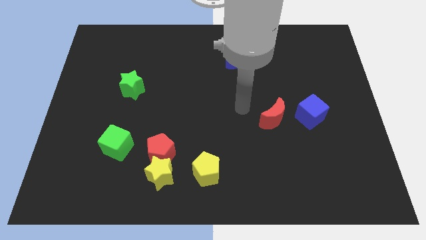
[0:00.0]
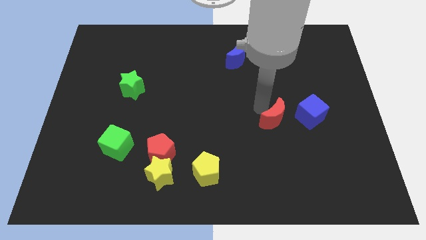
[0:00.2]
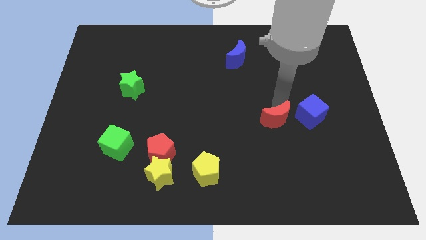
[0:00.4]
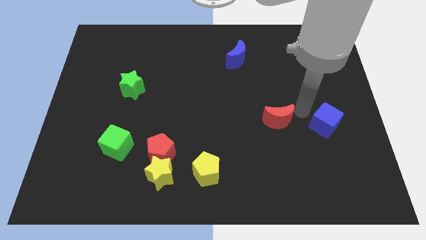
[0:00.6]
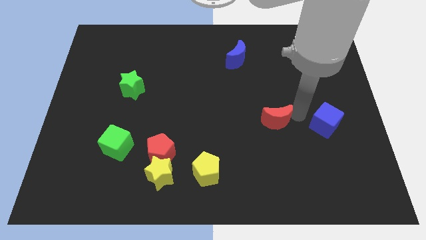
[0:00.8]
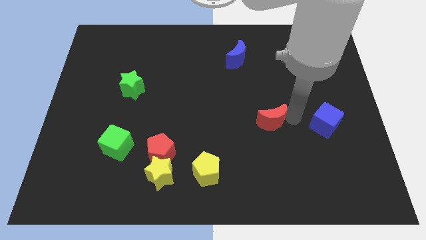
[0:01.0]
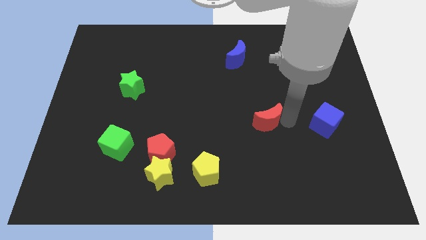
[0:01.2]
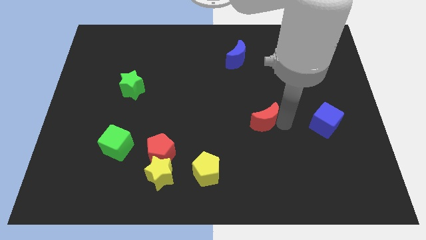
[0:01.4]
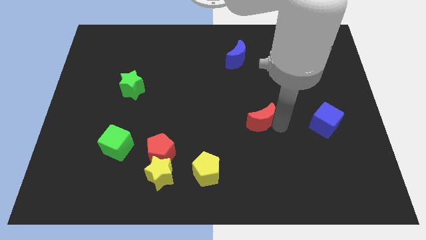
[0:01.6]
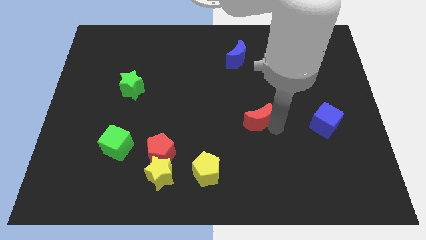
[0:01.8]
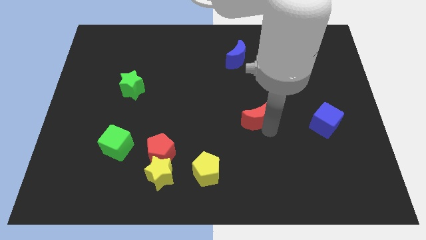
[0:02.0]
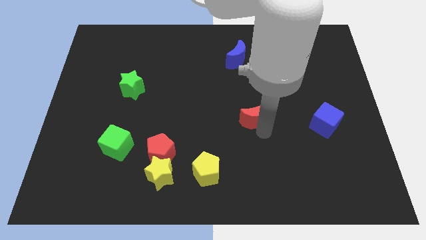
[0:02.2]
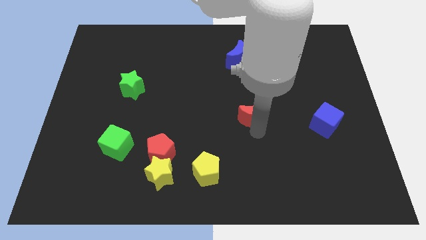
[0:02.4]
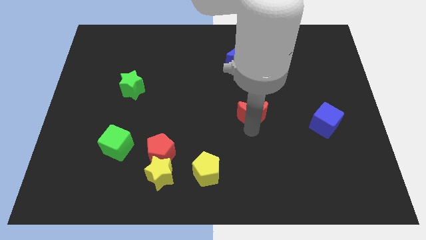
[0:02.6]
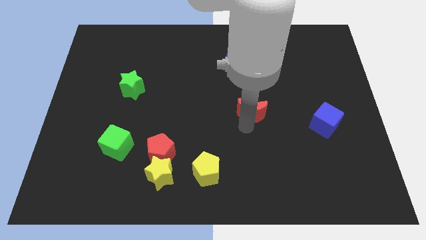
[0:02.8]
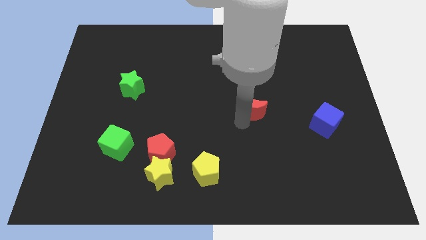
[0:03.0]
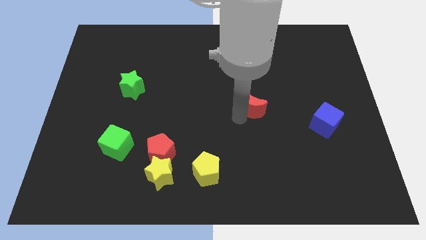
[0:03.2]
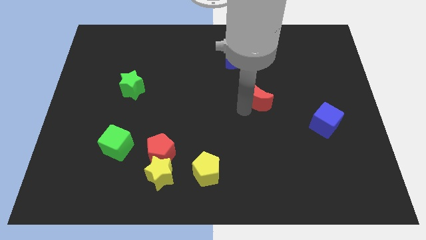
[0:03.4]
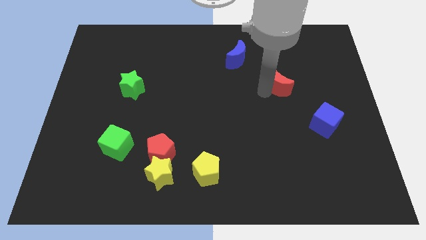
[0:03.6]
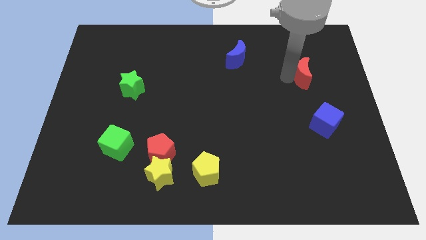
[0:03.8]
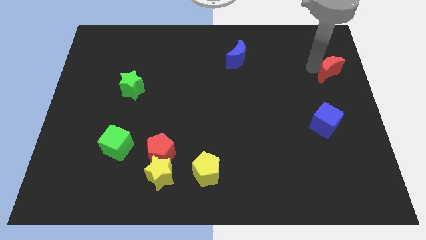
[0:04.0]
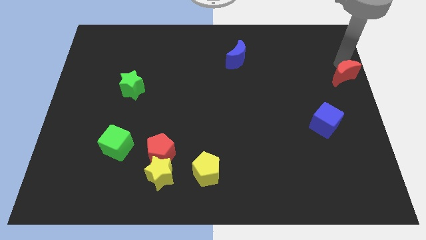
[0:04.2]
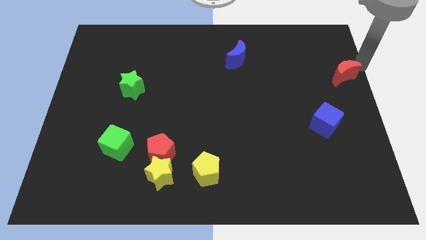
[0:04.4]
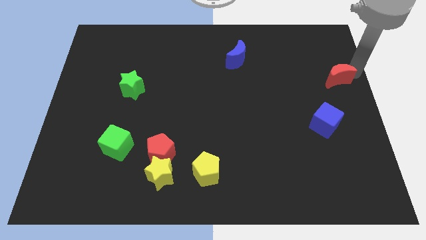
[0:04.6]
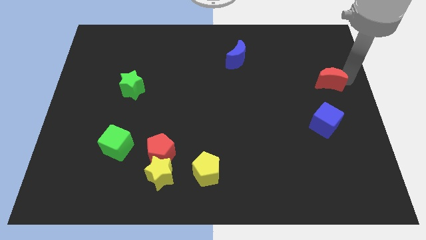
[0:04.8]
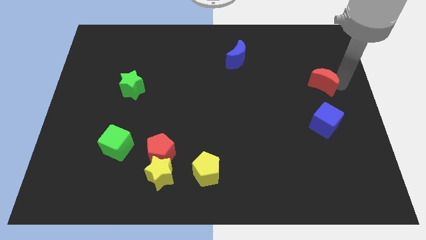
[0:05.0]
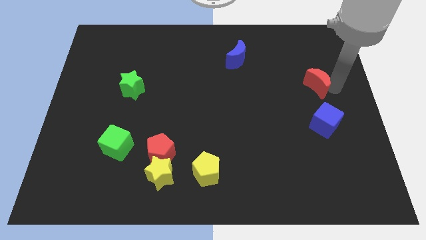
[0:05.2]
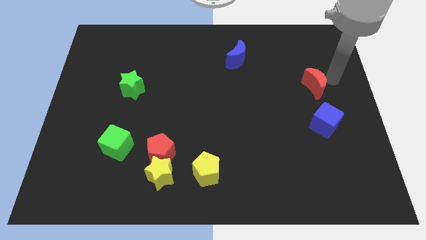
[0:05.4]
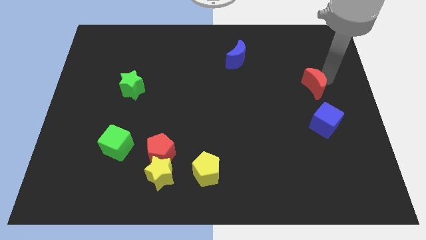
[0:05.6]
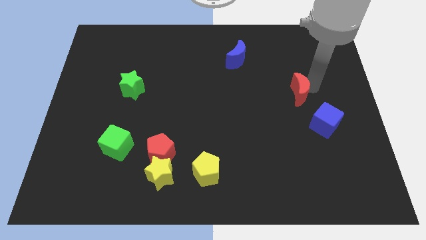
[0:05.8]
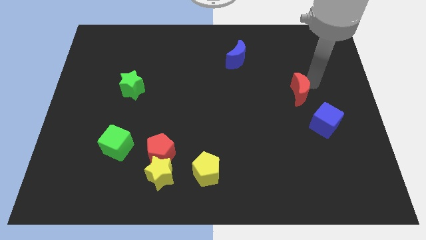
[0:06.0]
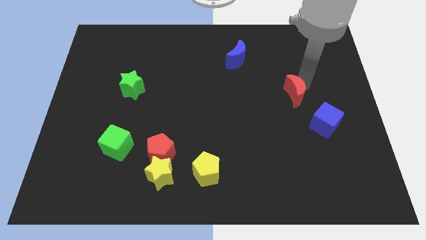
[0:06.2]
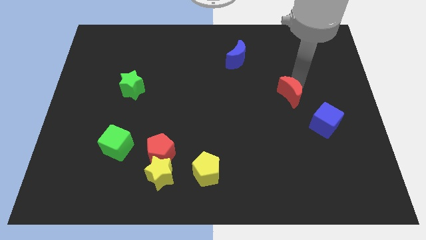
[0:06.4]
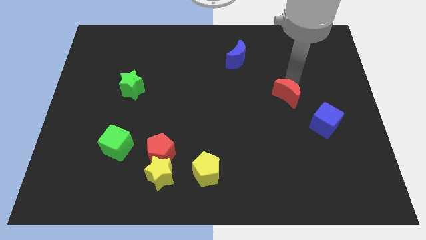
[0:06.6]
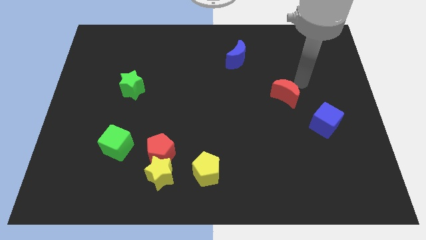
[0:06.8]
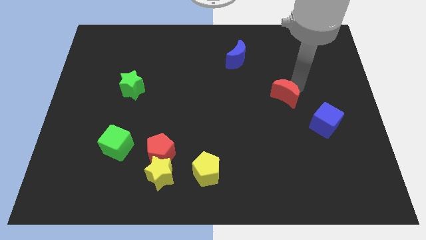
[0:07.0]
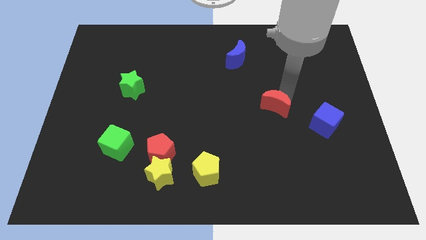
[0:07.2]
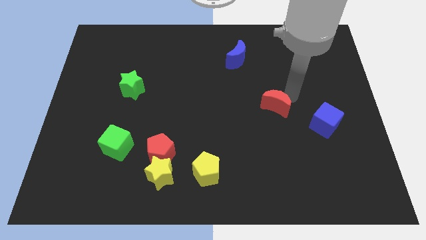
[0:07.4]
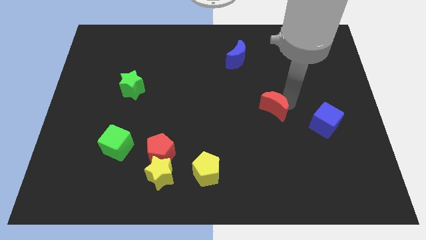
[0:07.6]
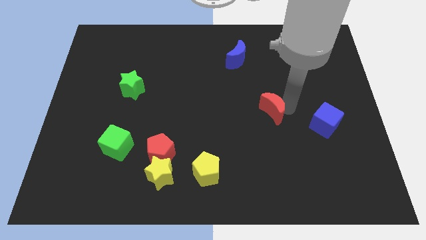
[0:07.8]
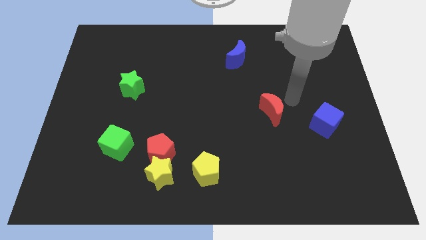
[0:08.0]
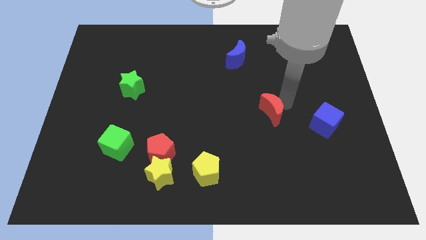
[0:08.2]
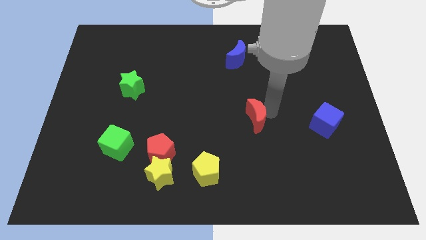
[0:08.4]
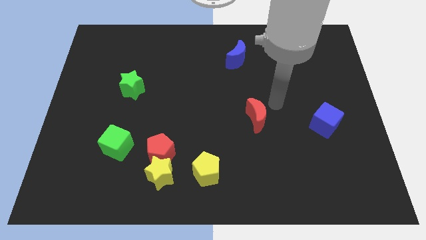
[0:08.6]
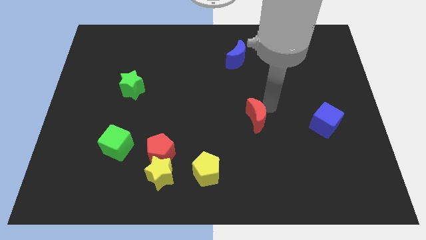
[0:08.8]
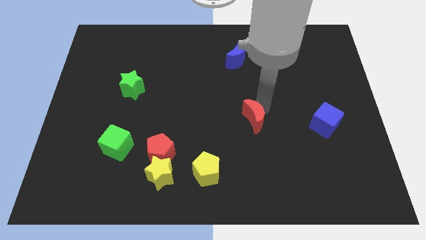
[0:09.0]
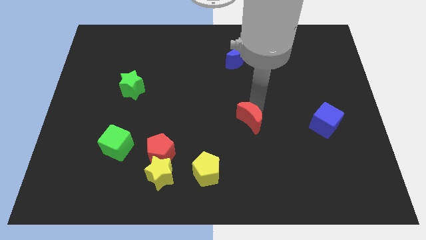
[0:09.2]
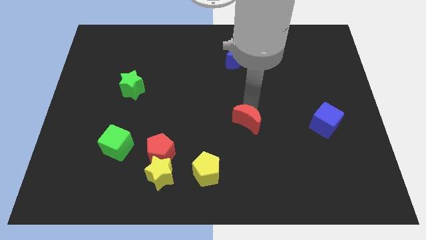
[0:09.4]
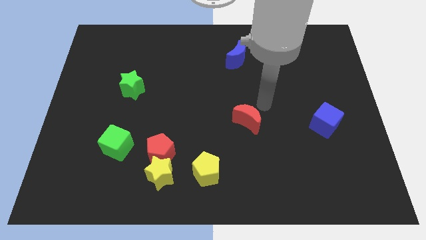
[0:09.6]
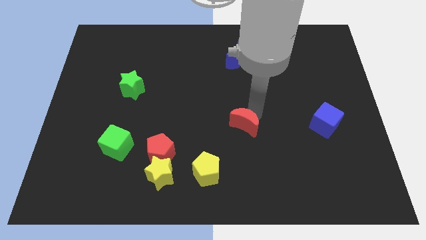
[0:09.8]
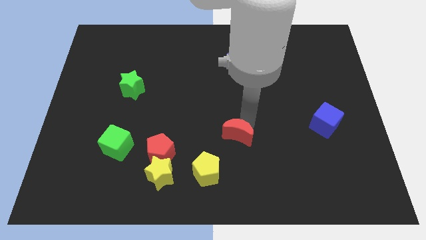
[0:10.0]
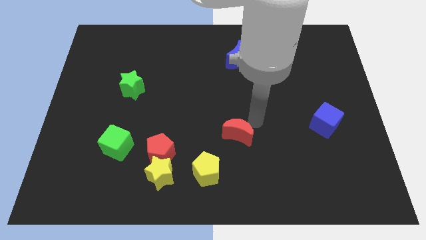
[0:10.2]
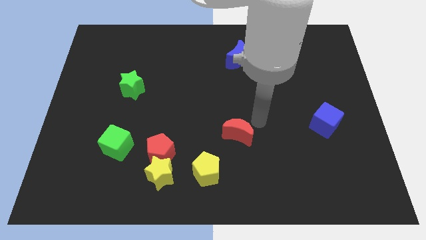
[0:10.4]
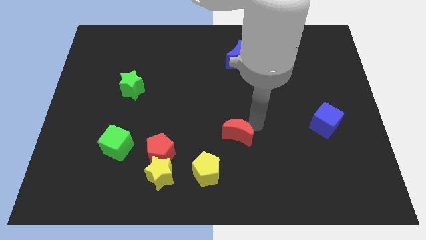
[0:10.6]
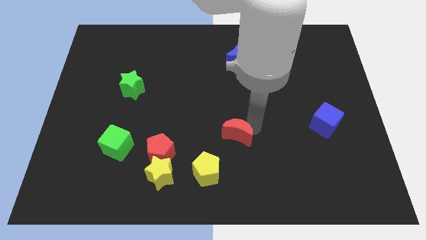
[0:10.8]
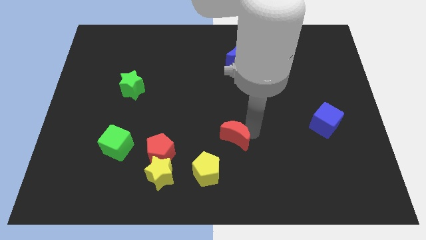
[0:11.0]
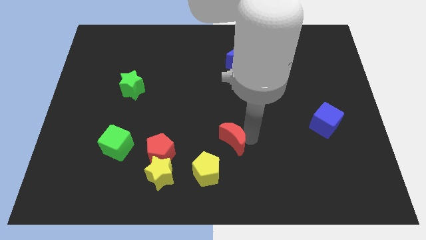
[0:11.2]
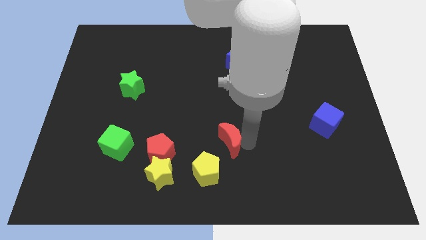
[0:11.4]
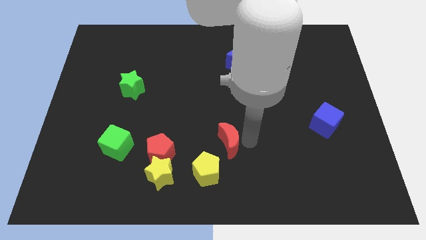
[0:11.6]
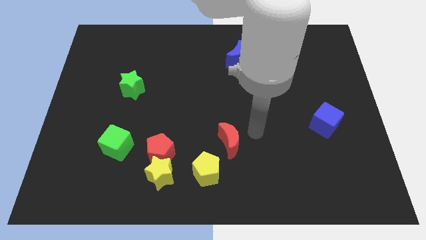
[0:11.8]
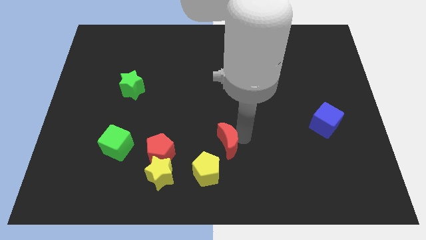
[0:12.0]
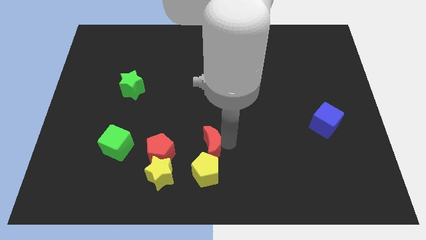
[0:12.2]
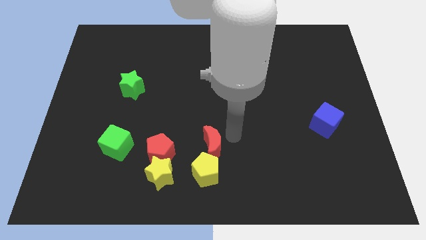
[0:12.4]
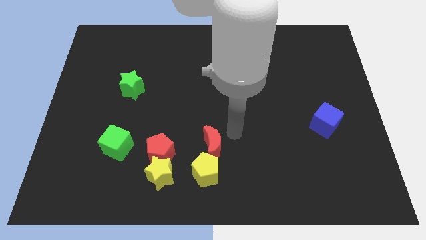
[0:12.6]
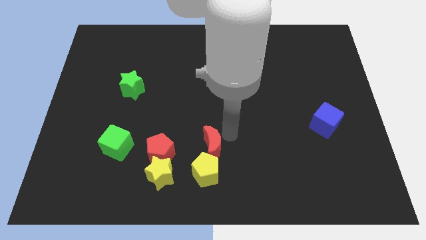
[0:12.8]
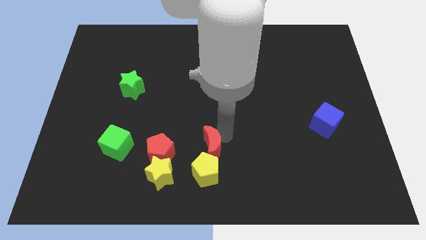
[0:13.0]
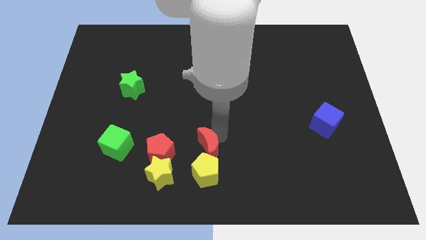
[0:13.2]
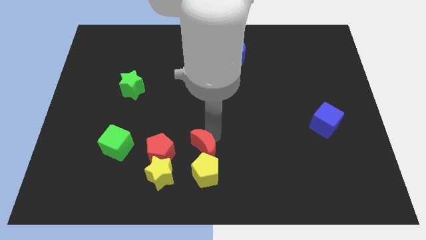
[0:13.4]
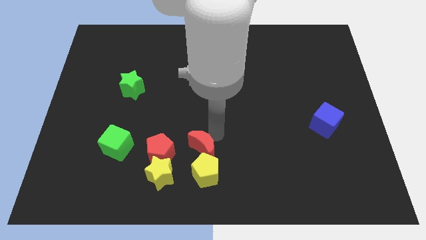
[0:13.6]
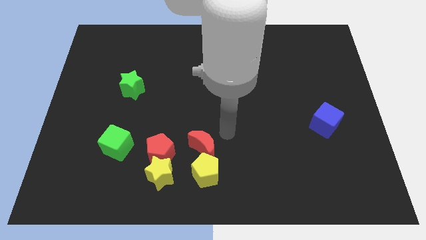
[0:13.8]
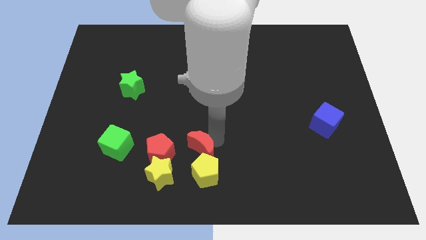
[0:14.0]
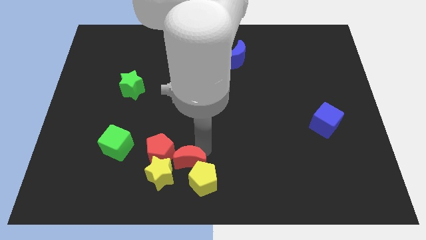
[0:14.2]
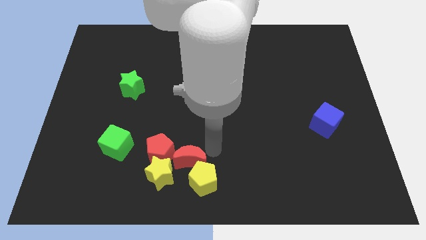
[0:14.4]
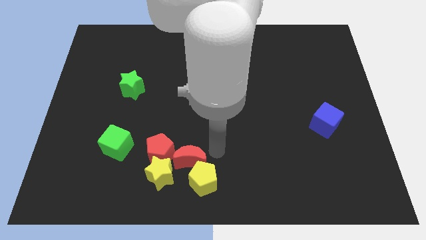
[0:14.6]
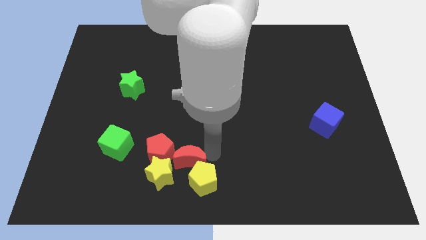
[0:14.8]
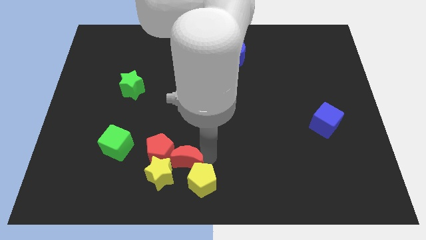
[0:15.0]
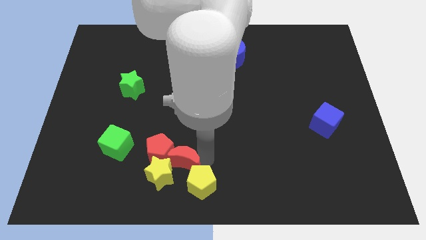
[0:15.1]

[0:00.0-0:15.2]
push the red moon towards the yellow star
